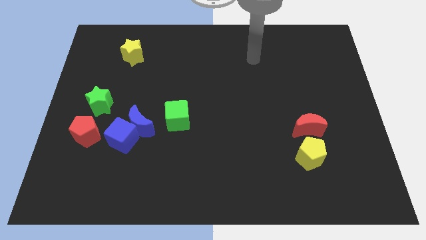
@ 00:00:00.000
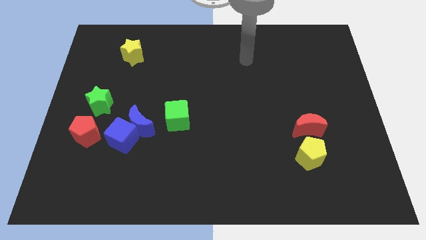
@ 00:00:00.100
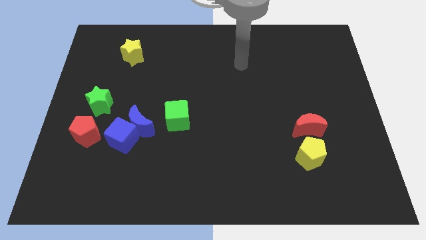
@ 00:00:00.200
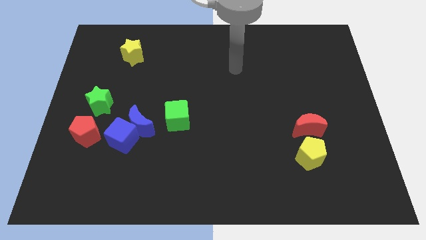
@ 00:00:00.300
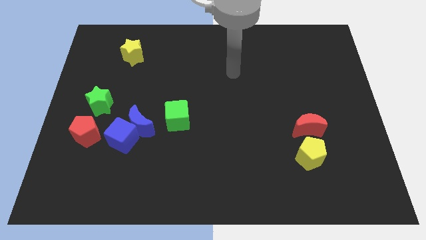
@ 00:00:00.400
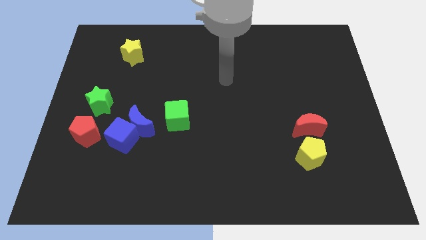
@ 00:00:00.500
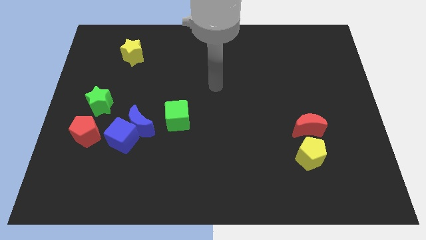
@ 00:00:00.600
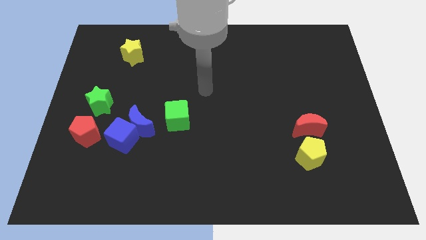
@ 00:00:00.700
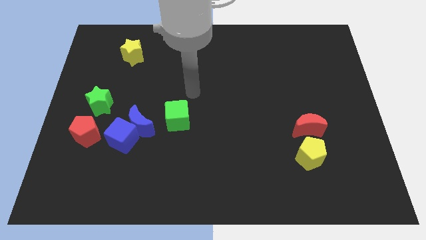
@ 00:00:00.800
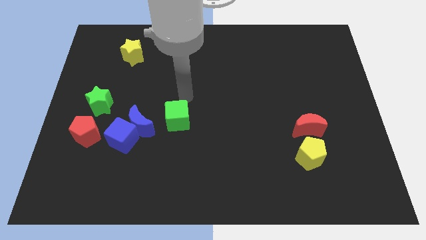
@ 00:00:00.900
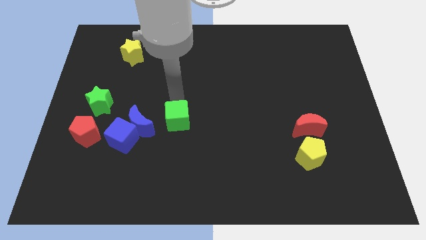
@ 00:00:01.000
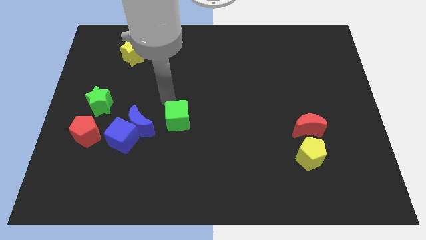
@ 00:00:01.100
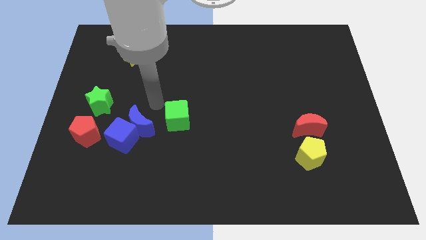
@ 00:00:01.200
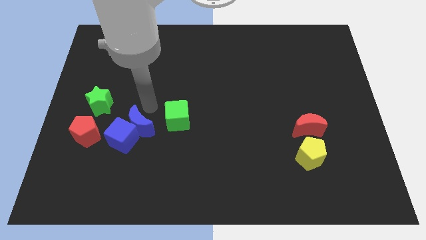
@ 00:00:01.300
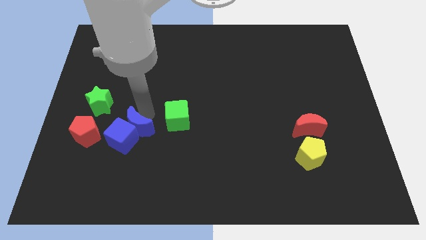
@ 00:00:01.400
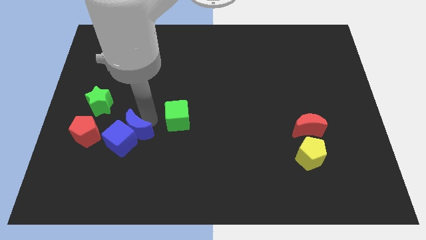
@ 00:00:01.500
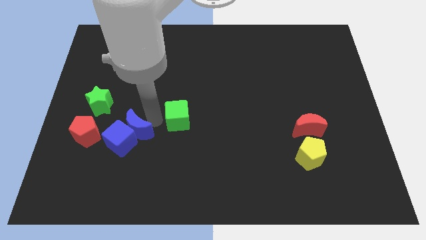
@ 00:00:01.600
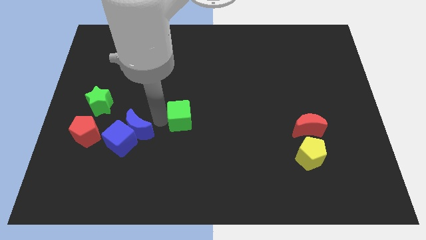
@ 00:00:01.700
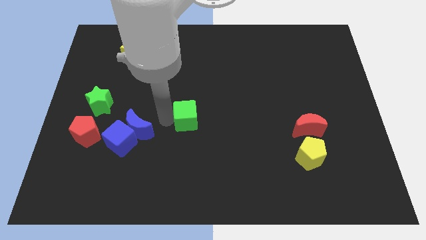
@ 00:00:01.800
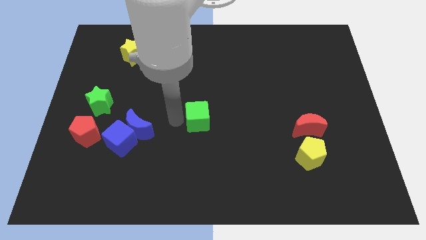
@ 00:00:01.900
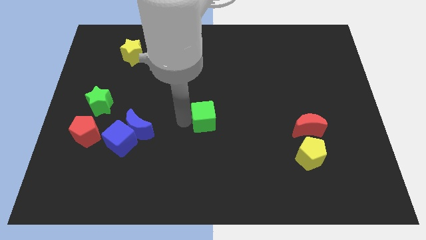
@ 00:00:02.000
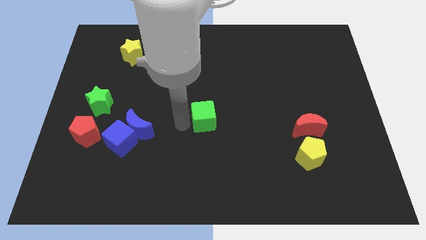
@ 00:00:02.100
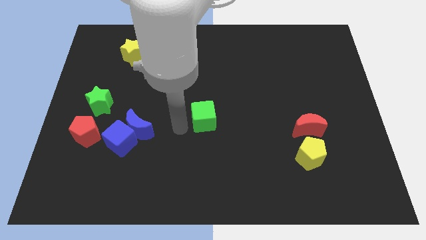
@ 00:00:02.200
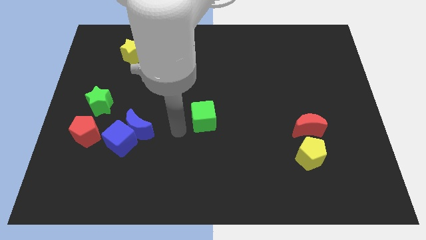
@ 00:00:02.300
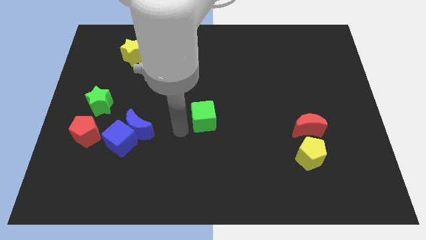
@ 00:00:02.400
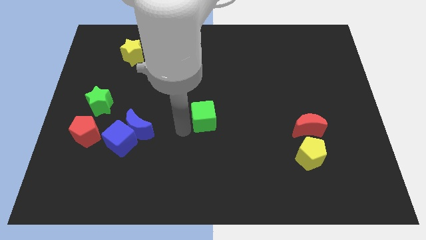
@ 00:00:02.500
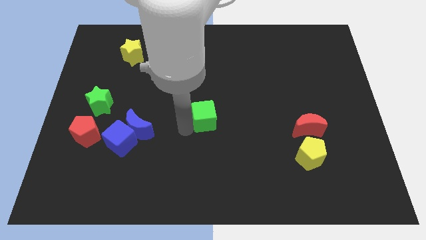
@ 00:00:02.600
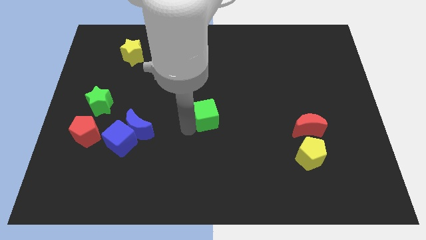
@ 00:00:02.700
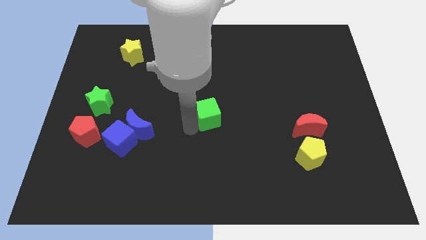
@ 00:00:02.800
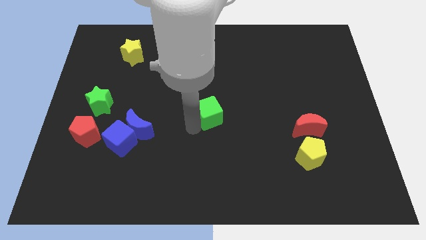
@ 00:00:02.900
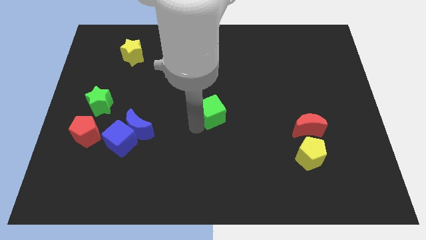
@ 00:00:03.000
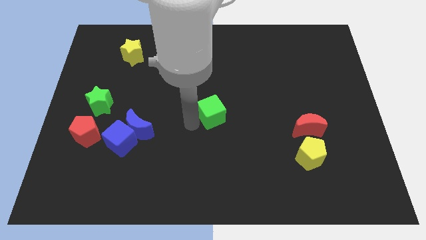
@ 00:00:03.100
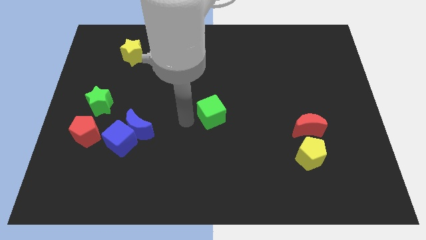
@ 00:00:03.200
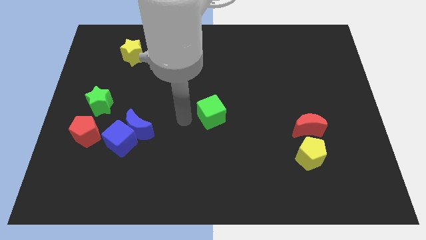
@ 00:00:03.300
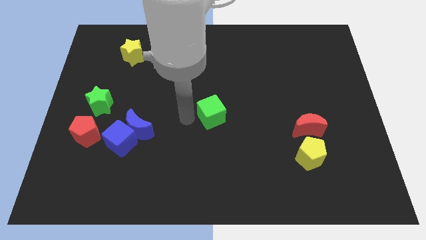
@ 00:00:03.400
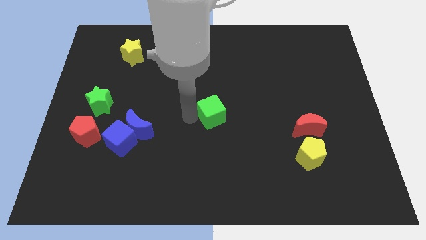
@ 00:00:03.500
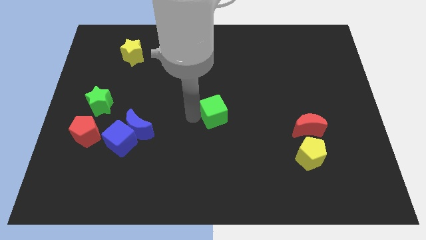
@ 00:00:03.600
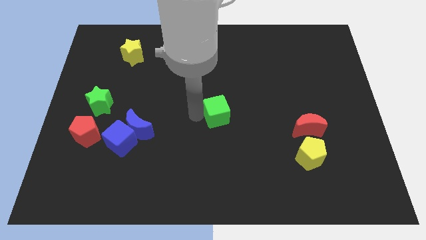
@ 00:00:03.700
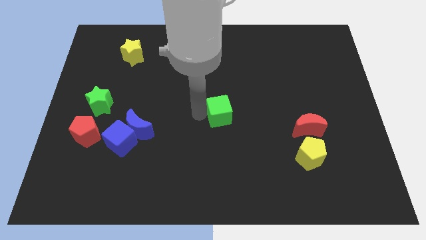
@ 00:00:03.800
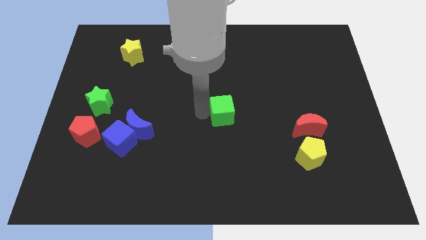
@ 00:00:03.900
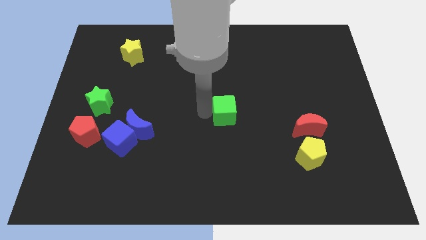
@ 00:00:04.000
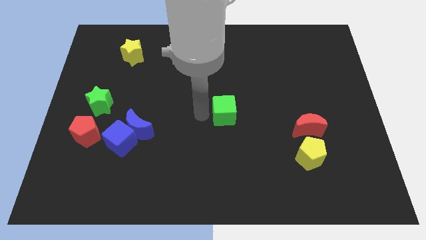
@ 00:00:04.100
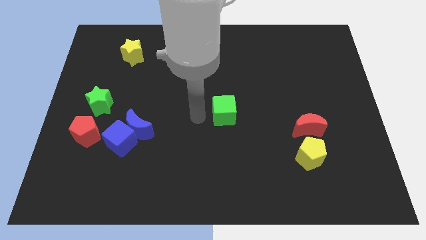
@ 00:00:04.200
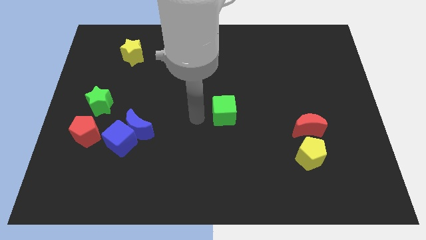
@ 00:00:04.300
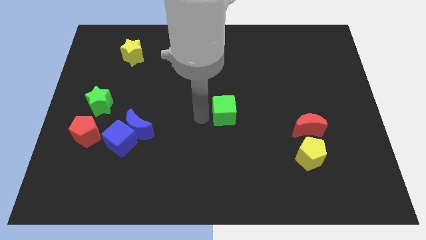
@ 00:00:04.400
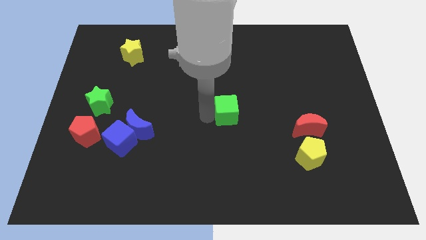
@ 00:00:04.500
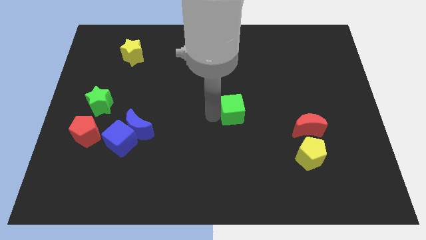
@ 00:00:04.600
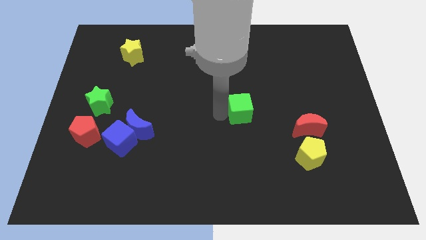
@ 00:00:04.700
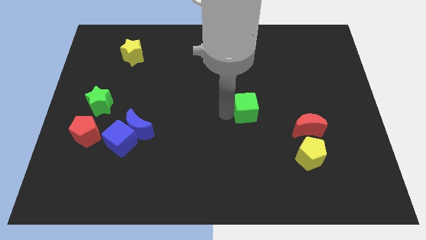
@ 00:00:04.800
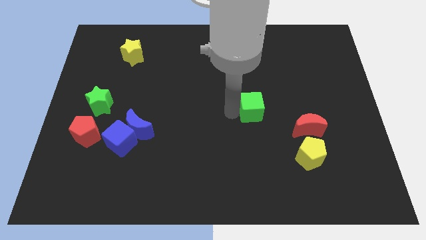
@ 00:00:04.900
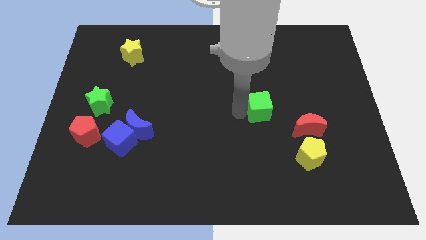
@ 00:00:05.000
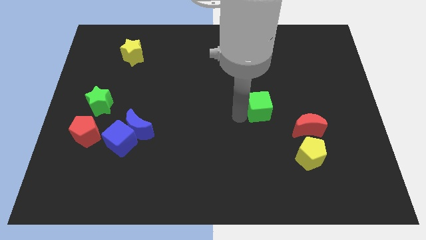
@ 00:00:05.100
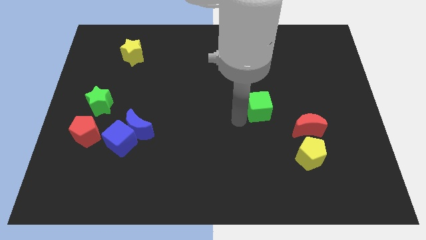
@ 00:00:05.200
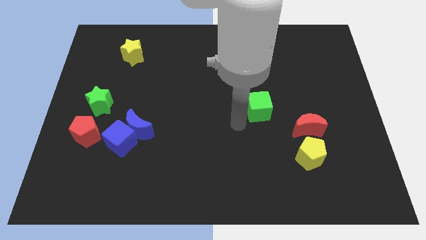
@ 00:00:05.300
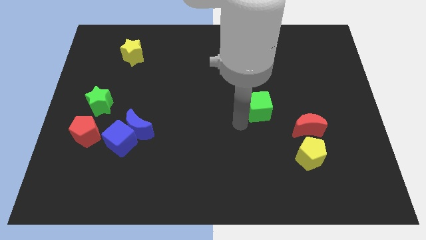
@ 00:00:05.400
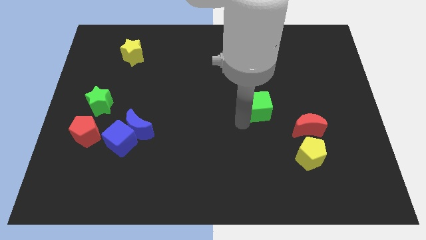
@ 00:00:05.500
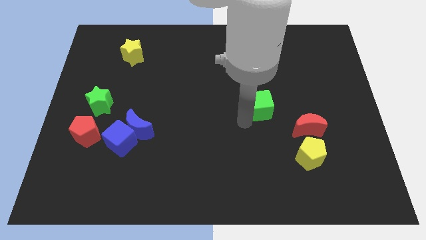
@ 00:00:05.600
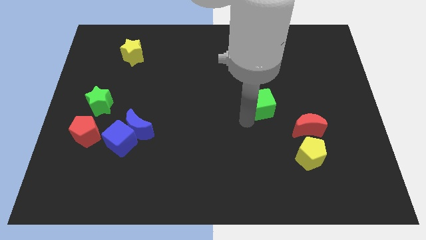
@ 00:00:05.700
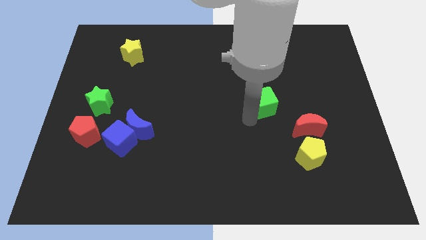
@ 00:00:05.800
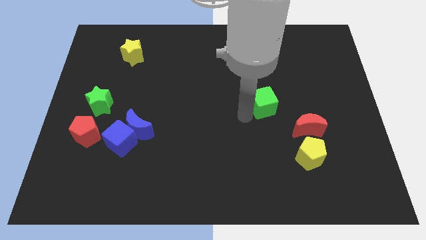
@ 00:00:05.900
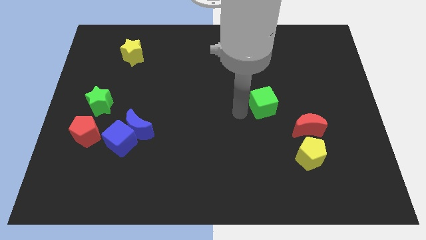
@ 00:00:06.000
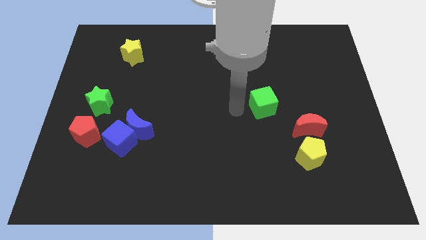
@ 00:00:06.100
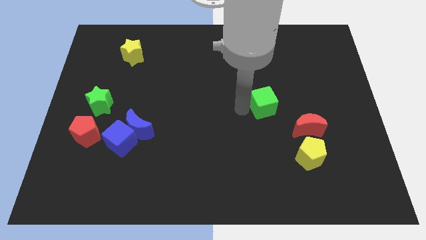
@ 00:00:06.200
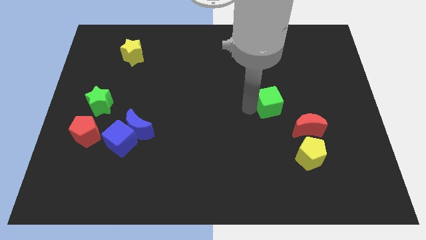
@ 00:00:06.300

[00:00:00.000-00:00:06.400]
push the green cube to the right

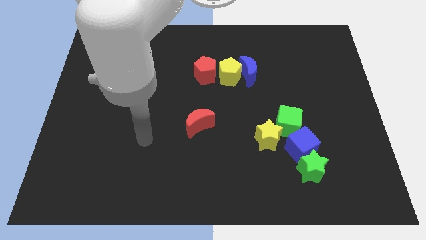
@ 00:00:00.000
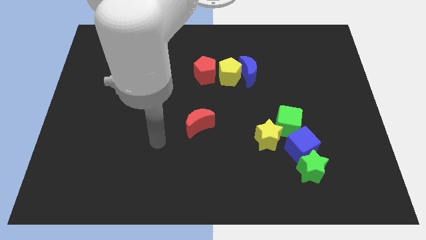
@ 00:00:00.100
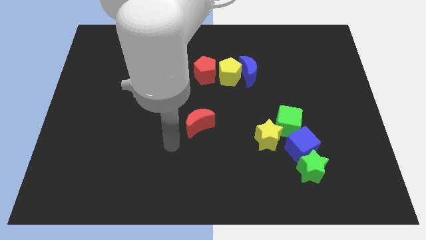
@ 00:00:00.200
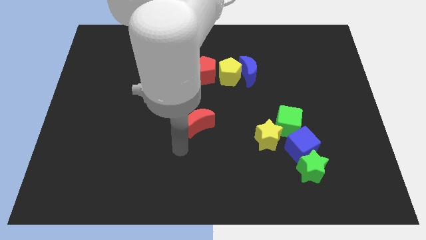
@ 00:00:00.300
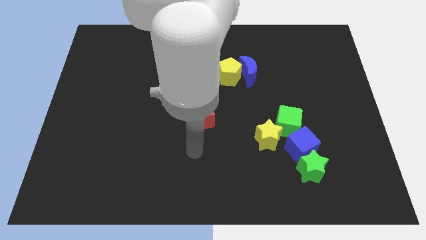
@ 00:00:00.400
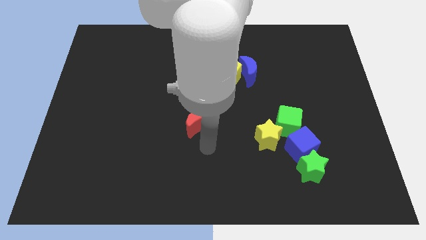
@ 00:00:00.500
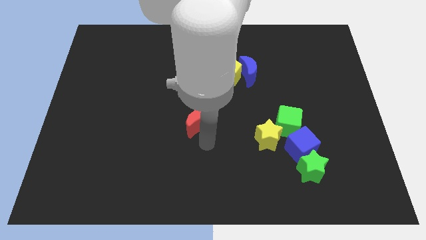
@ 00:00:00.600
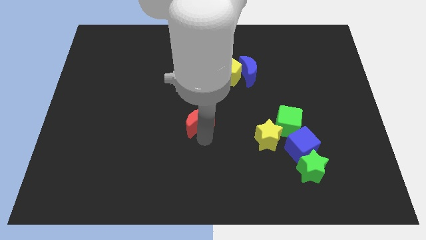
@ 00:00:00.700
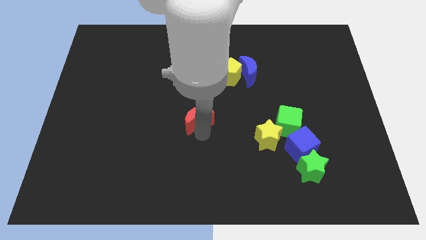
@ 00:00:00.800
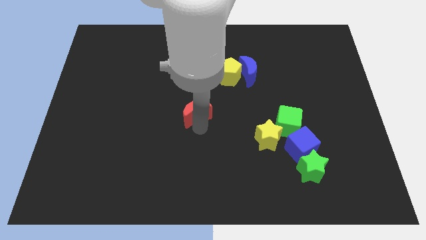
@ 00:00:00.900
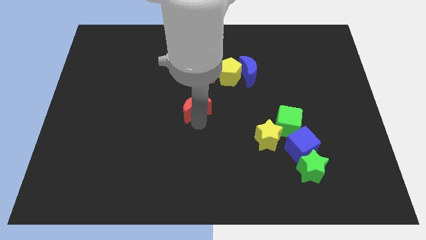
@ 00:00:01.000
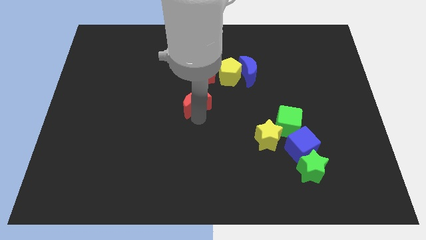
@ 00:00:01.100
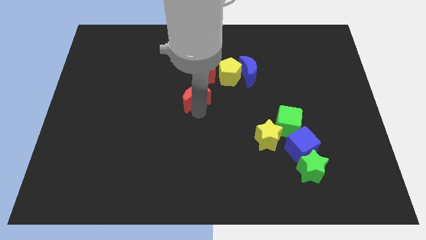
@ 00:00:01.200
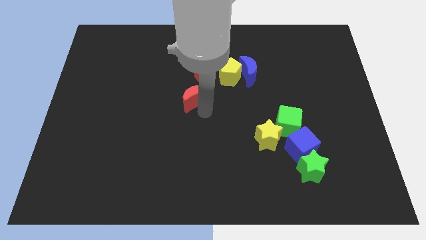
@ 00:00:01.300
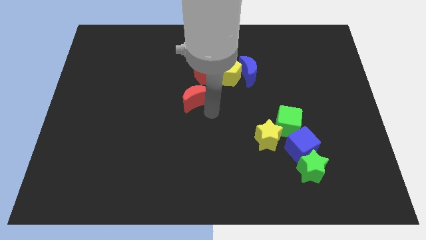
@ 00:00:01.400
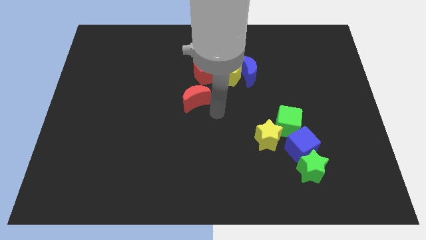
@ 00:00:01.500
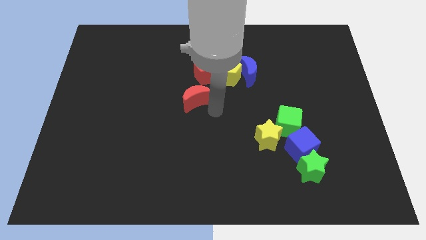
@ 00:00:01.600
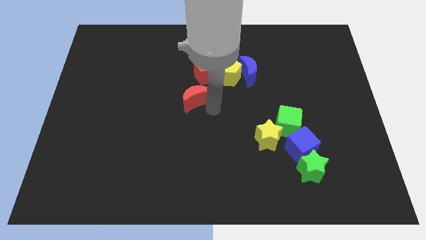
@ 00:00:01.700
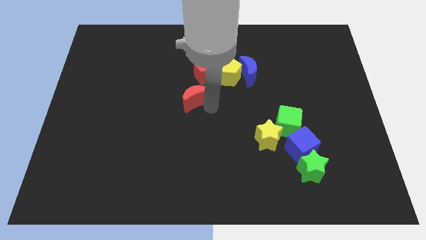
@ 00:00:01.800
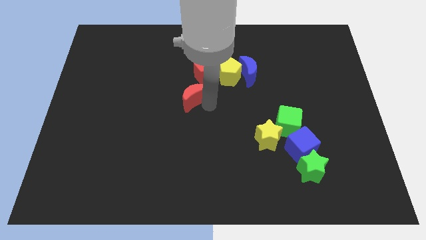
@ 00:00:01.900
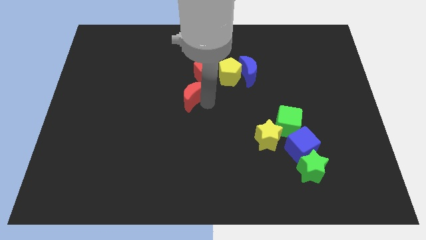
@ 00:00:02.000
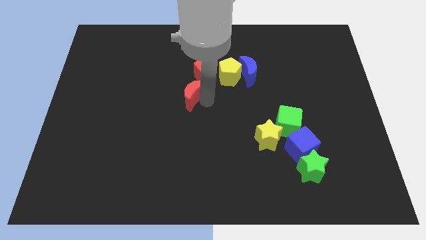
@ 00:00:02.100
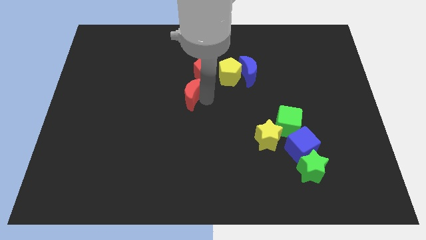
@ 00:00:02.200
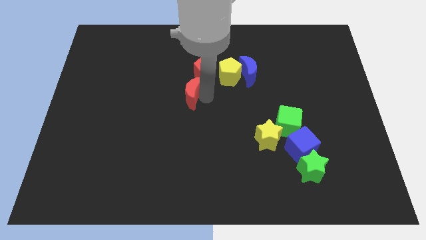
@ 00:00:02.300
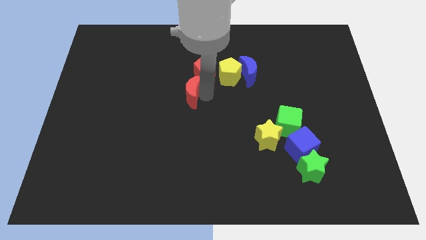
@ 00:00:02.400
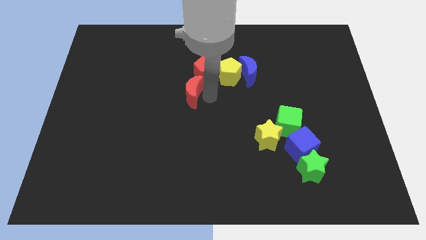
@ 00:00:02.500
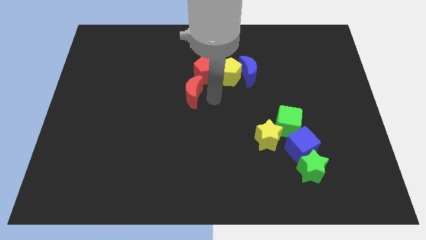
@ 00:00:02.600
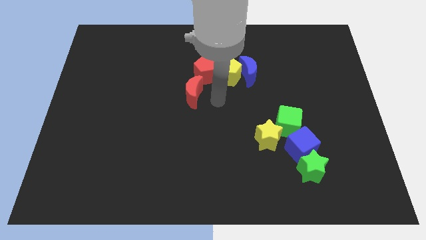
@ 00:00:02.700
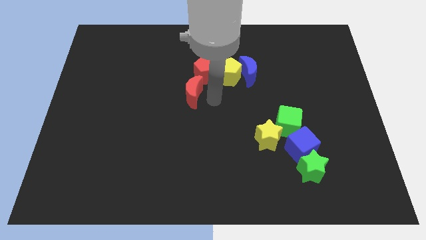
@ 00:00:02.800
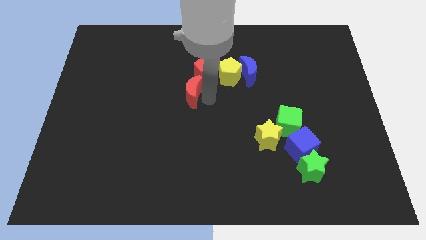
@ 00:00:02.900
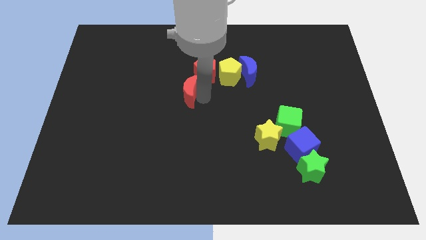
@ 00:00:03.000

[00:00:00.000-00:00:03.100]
push the red moon a little up and to the left diagonally
